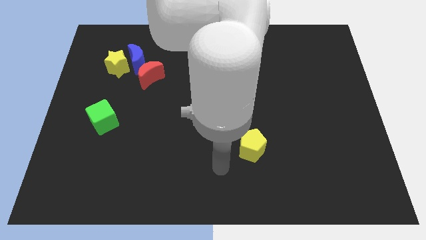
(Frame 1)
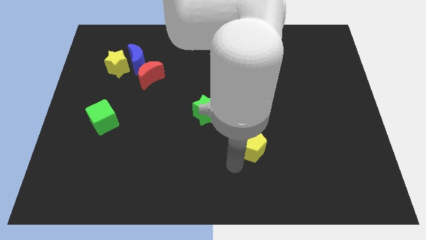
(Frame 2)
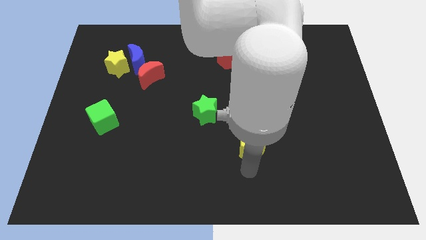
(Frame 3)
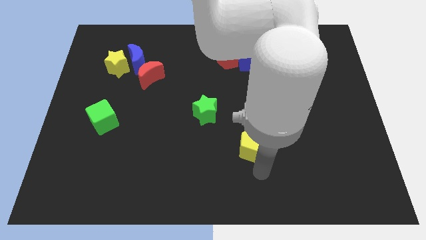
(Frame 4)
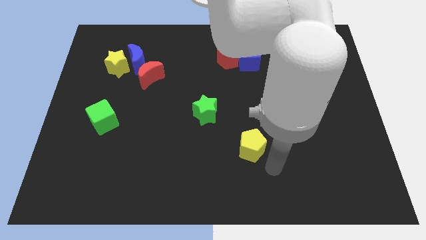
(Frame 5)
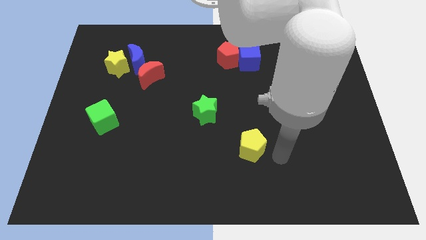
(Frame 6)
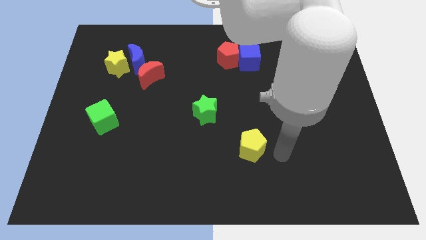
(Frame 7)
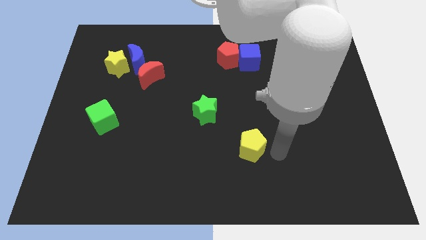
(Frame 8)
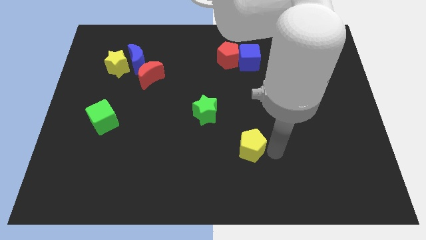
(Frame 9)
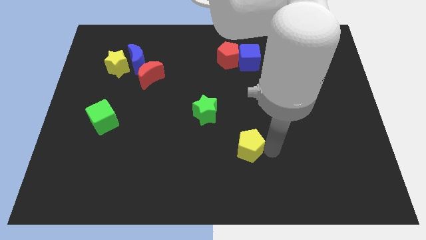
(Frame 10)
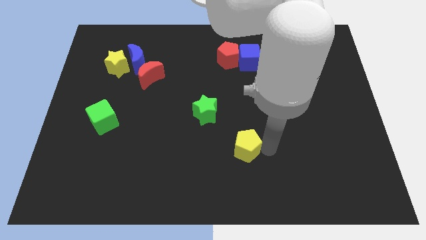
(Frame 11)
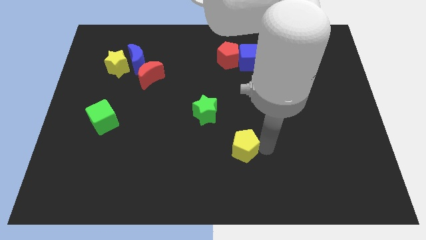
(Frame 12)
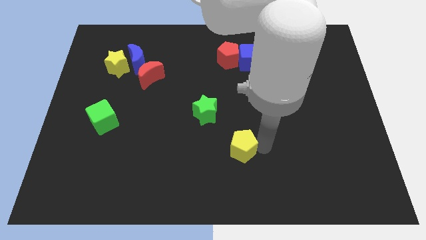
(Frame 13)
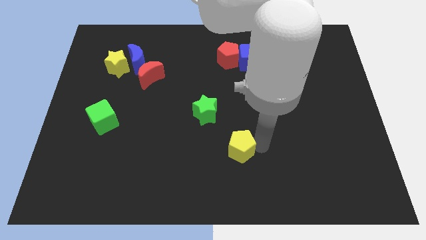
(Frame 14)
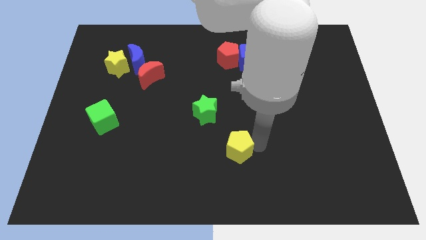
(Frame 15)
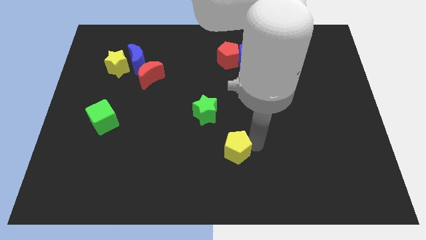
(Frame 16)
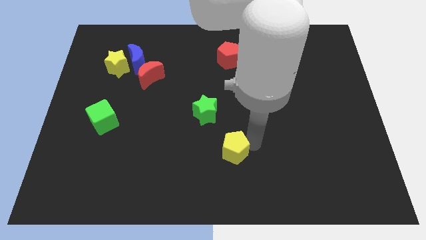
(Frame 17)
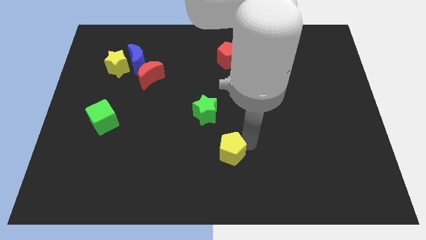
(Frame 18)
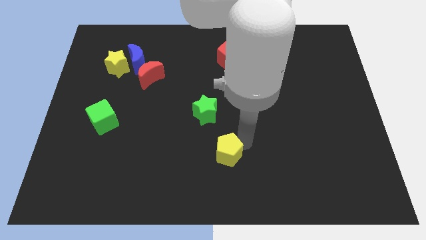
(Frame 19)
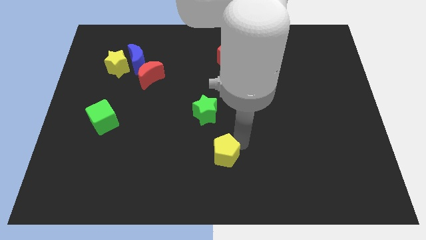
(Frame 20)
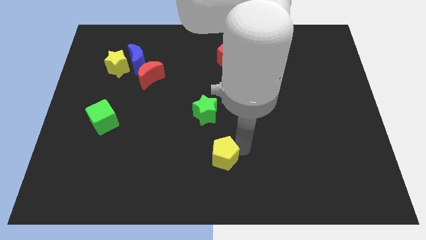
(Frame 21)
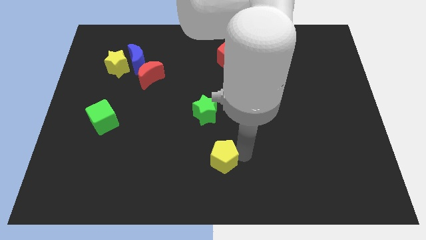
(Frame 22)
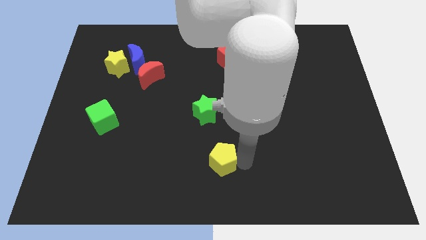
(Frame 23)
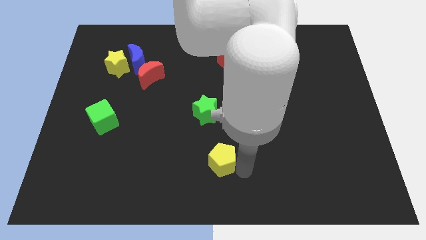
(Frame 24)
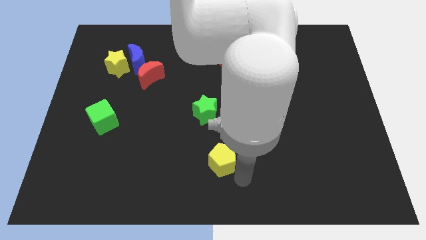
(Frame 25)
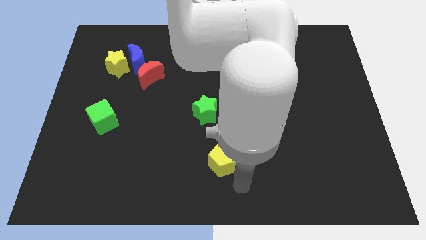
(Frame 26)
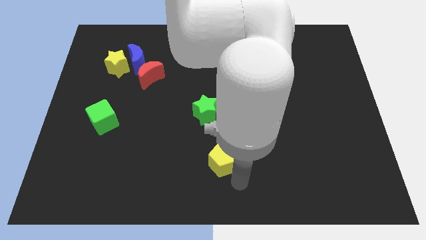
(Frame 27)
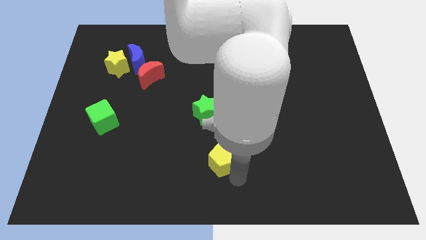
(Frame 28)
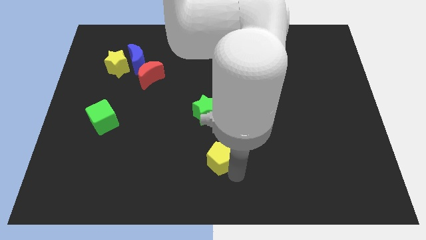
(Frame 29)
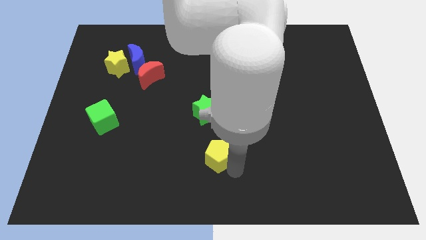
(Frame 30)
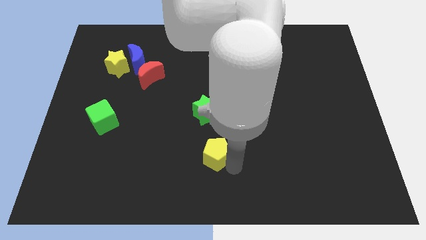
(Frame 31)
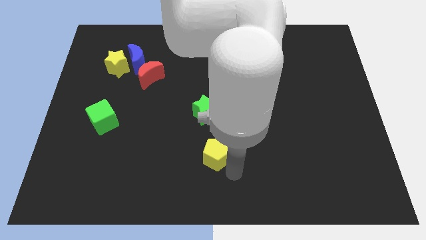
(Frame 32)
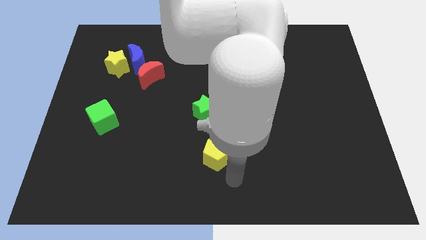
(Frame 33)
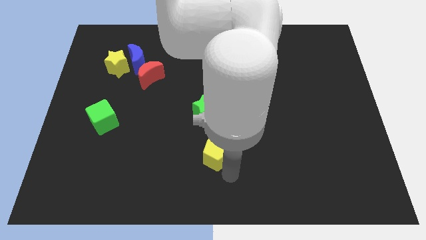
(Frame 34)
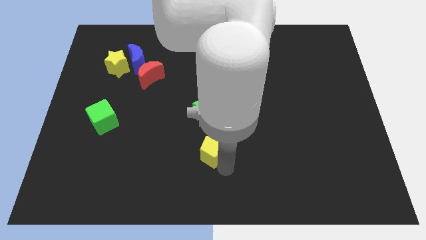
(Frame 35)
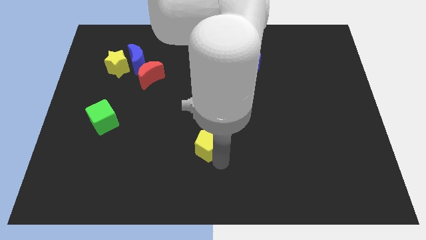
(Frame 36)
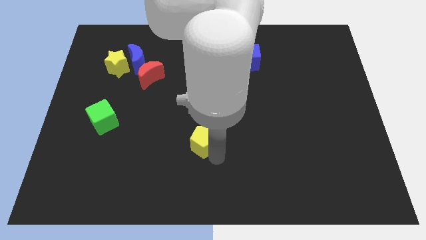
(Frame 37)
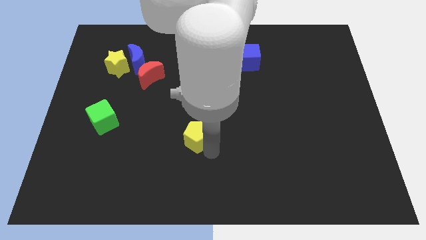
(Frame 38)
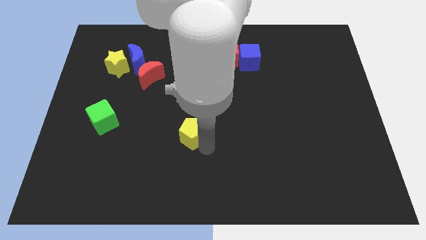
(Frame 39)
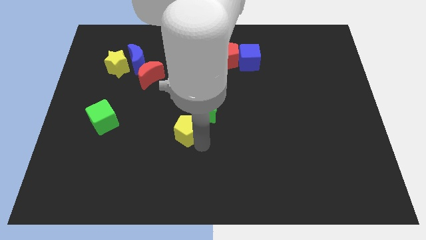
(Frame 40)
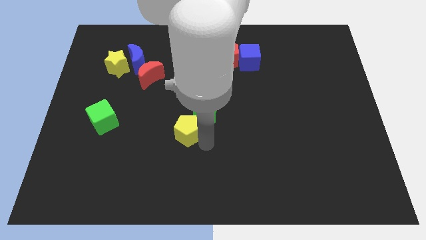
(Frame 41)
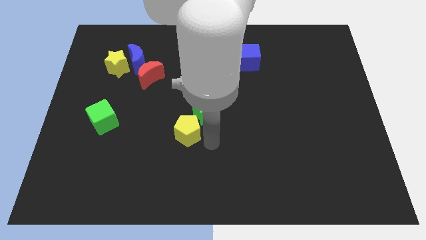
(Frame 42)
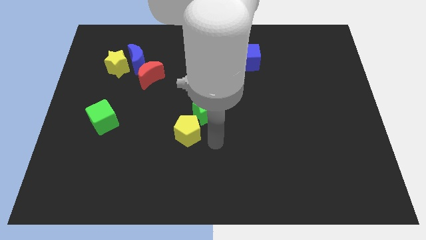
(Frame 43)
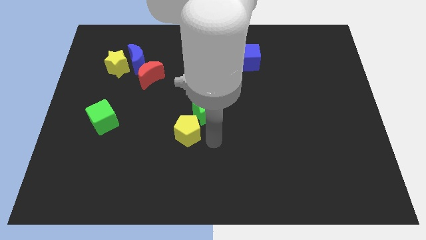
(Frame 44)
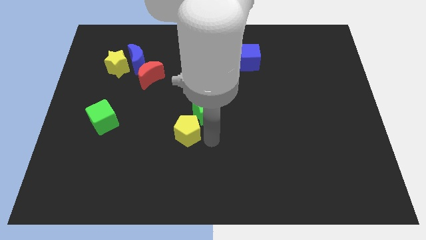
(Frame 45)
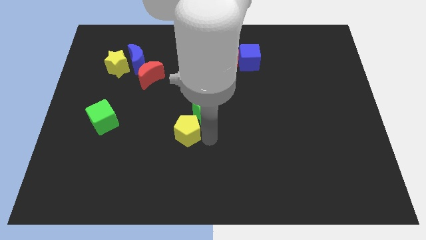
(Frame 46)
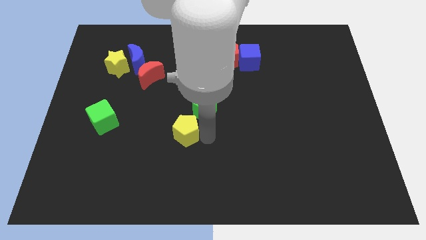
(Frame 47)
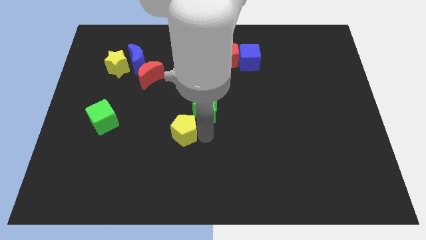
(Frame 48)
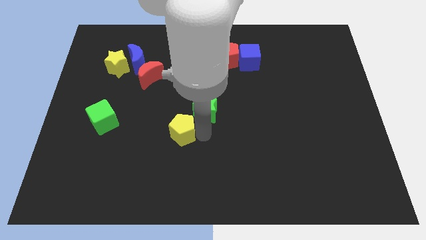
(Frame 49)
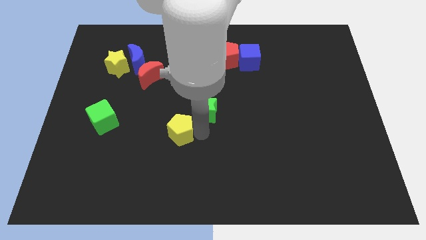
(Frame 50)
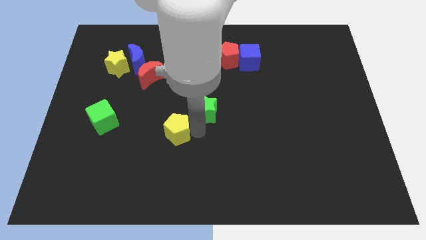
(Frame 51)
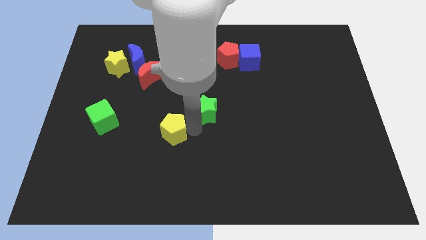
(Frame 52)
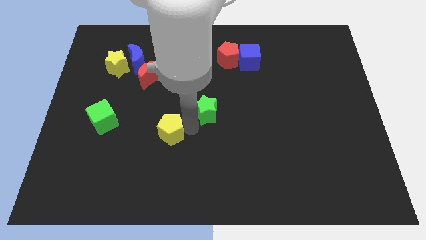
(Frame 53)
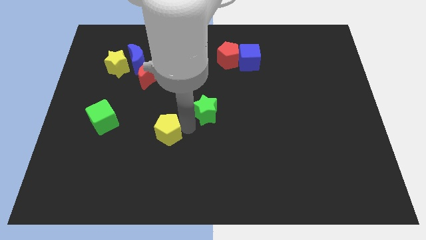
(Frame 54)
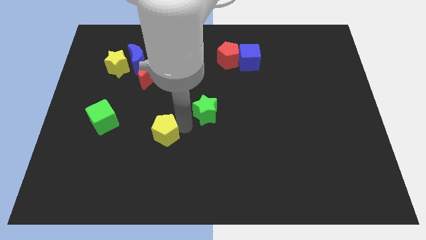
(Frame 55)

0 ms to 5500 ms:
move the yellow pentagon right of the green cube

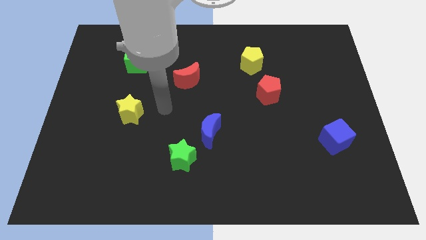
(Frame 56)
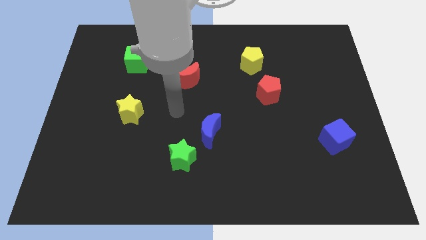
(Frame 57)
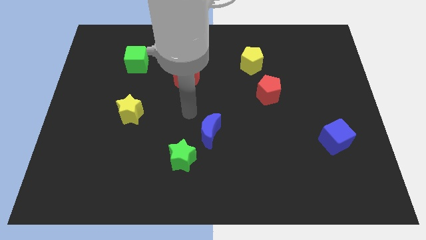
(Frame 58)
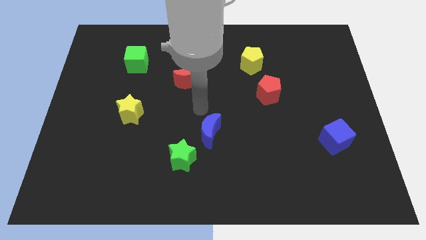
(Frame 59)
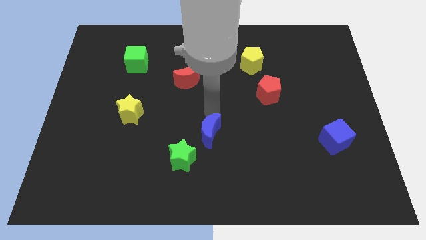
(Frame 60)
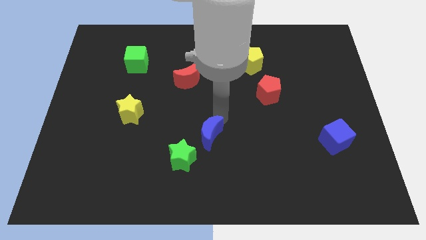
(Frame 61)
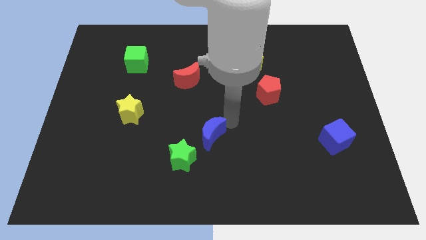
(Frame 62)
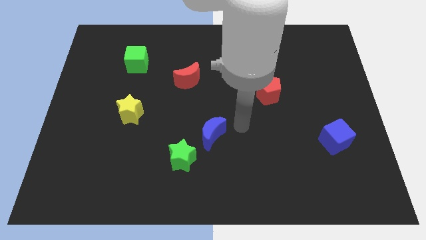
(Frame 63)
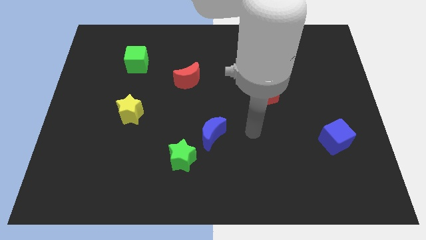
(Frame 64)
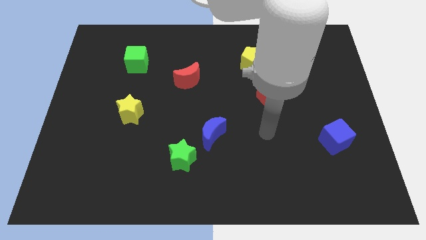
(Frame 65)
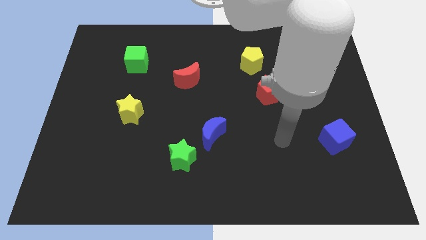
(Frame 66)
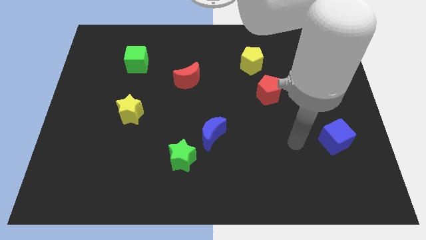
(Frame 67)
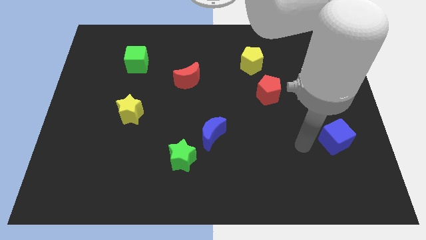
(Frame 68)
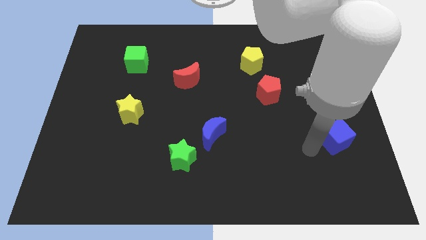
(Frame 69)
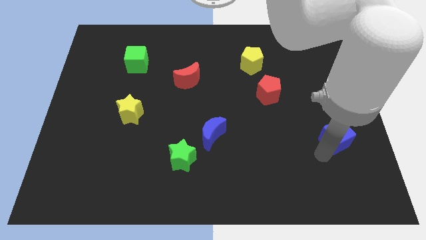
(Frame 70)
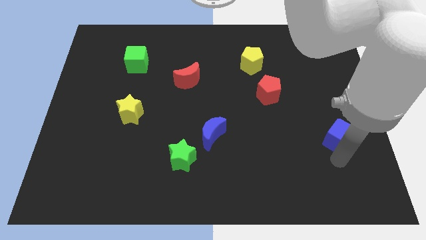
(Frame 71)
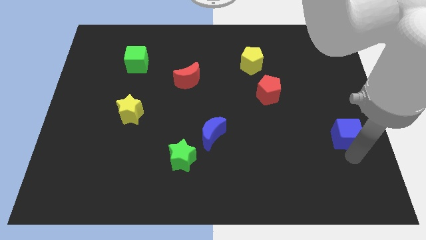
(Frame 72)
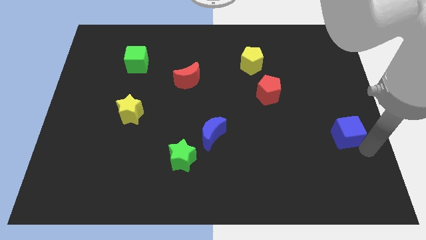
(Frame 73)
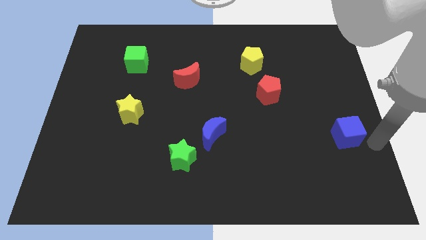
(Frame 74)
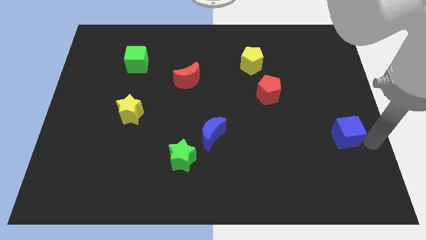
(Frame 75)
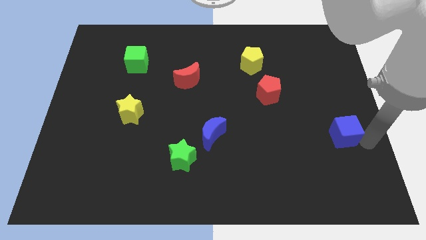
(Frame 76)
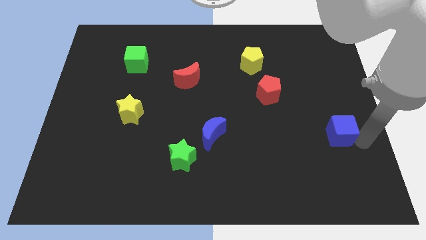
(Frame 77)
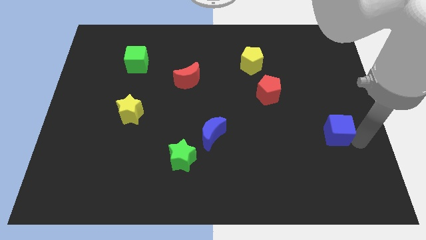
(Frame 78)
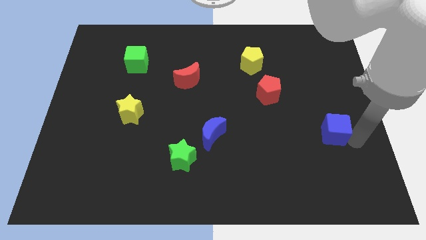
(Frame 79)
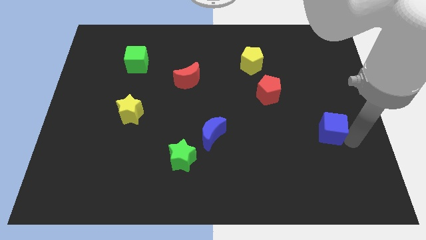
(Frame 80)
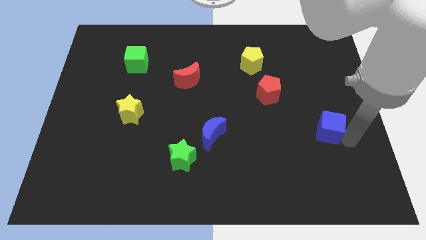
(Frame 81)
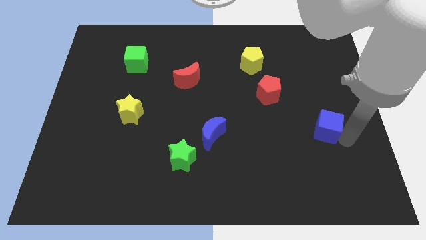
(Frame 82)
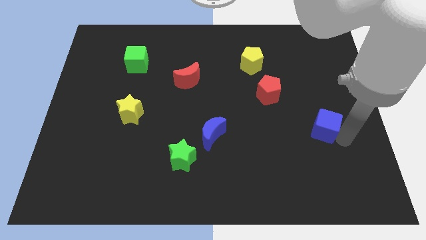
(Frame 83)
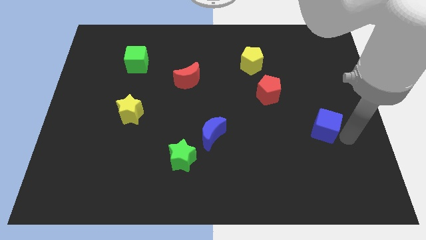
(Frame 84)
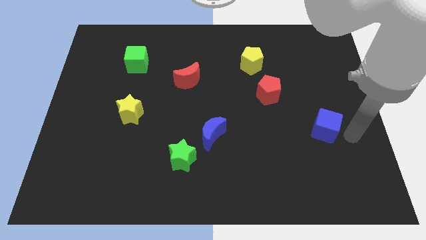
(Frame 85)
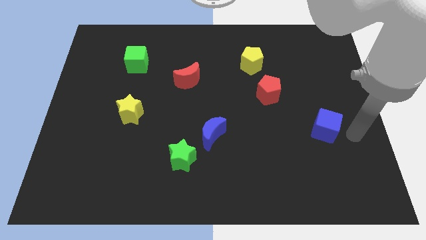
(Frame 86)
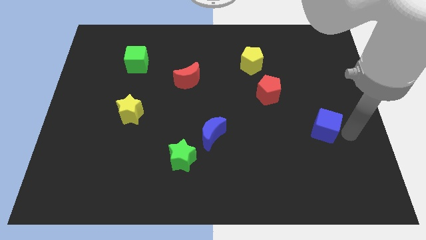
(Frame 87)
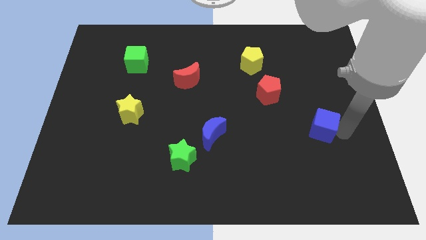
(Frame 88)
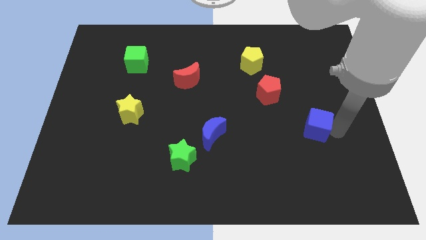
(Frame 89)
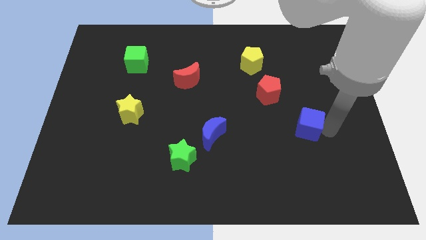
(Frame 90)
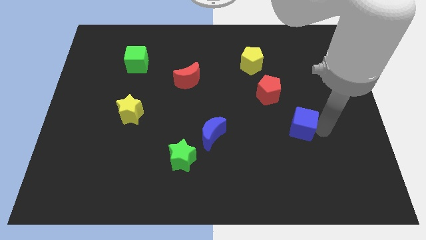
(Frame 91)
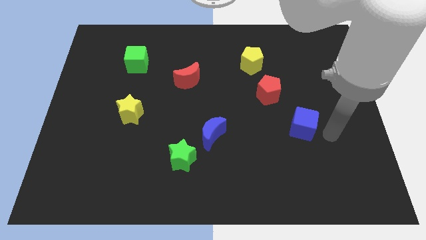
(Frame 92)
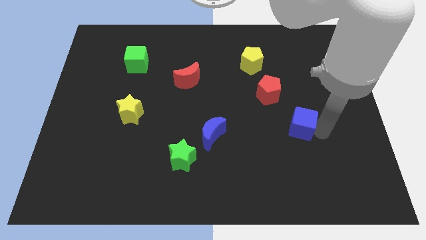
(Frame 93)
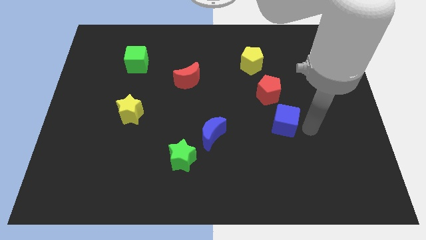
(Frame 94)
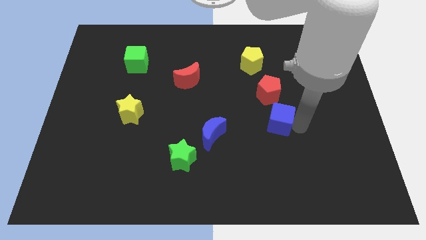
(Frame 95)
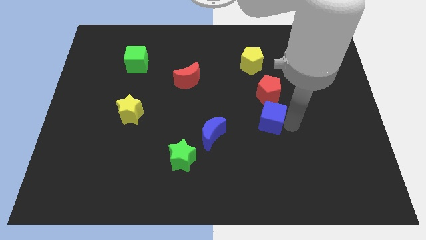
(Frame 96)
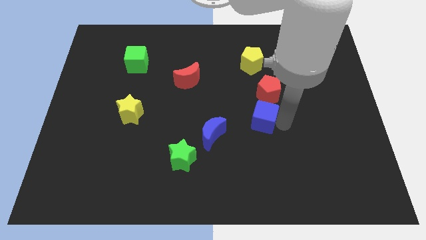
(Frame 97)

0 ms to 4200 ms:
slide the blue cube to the bottom left of the red pentagon
